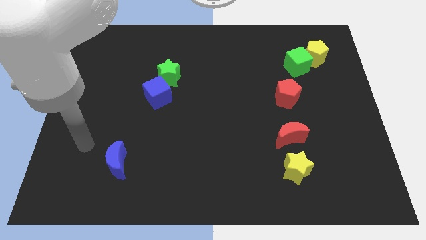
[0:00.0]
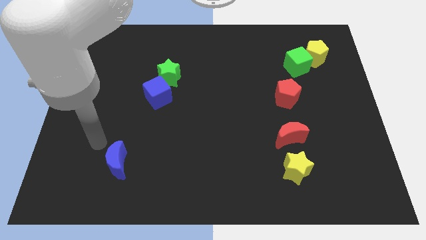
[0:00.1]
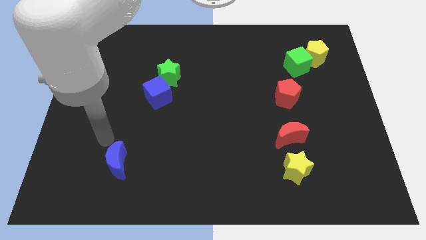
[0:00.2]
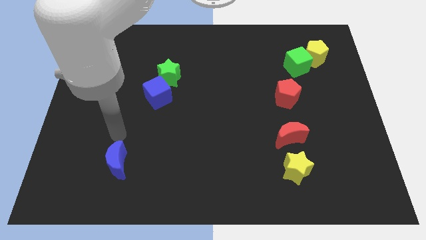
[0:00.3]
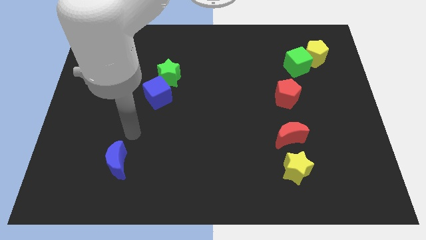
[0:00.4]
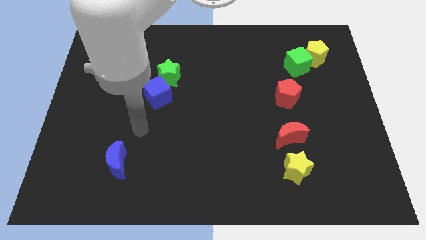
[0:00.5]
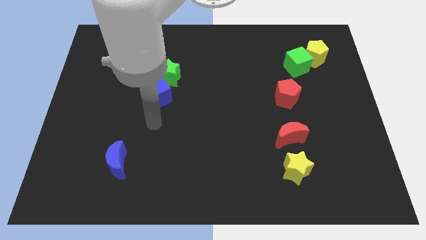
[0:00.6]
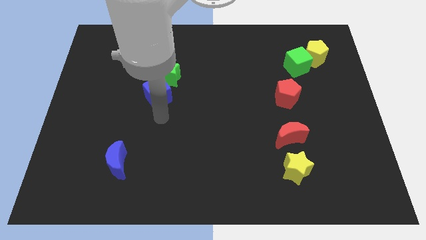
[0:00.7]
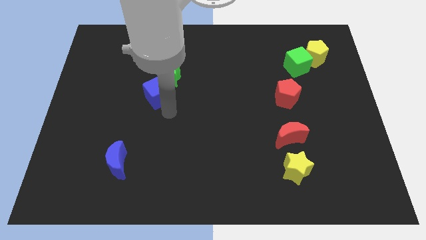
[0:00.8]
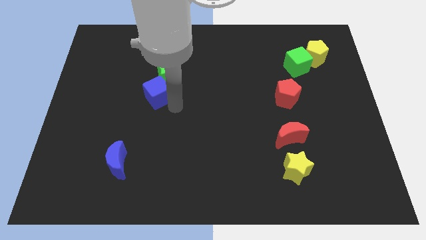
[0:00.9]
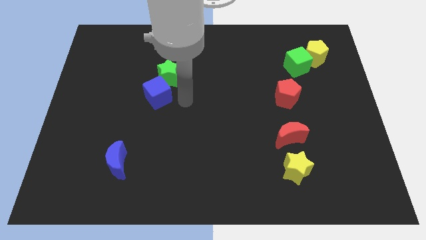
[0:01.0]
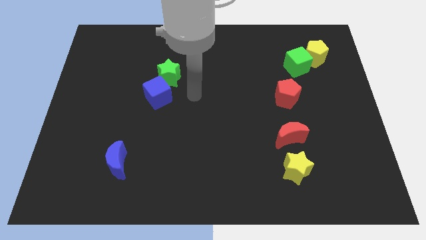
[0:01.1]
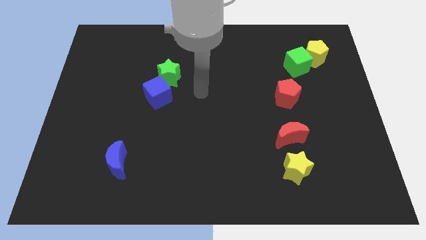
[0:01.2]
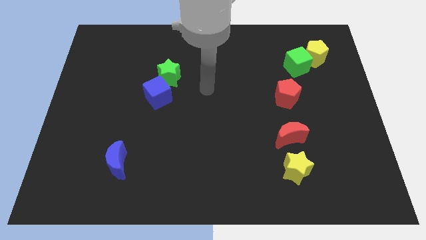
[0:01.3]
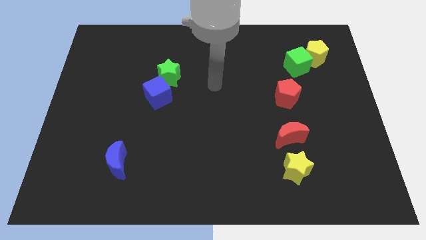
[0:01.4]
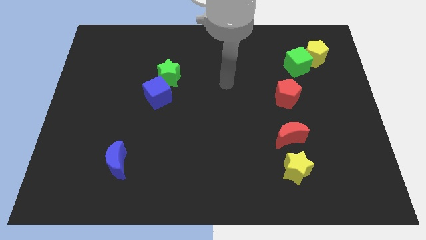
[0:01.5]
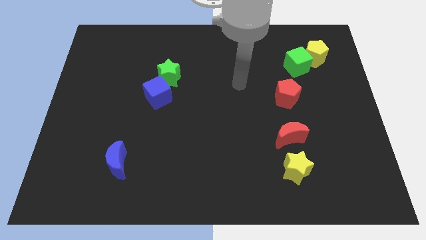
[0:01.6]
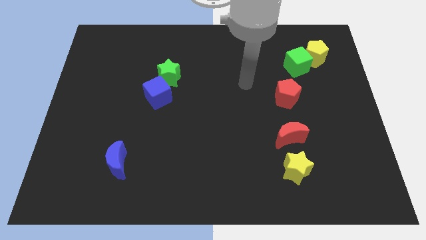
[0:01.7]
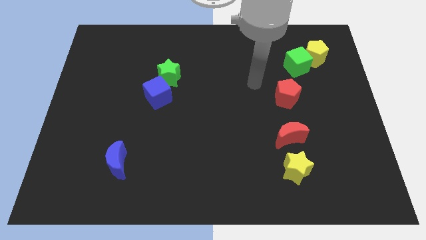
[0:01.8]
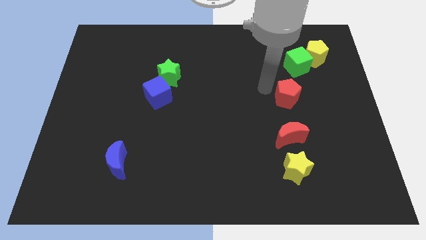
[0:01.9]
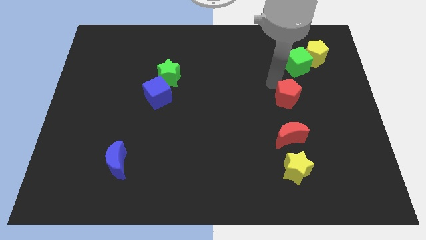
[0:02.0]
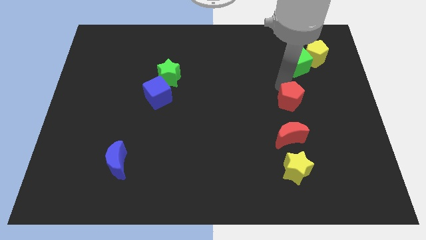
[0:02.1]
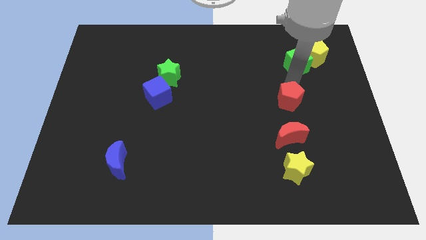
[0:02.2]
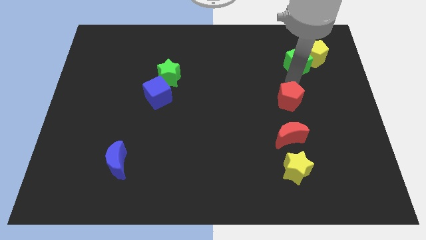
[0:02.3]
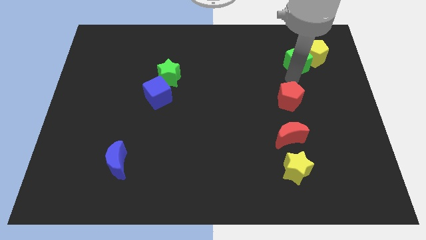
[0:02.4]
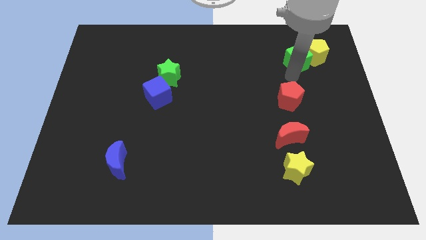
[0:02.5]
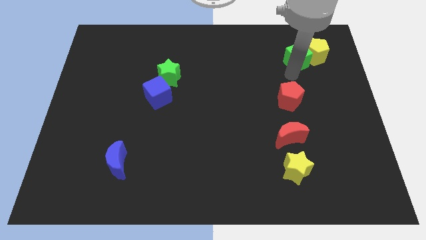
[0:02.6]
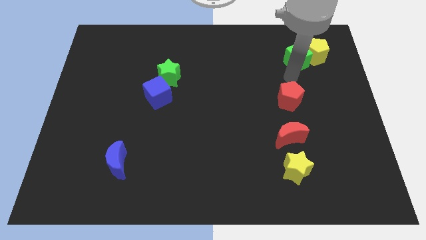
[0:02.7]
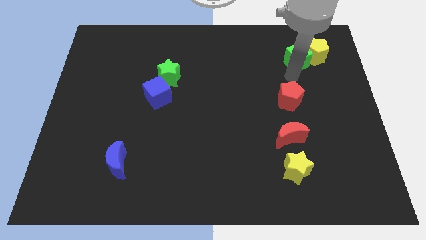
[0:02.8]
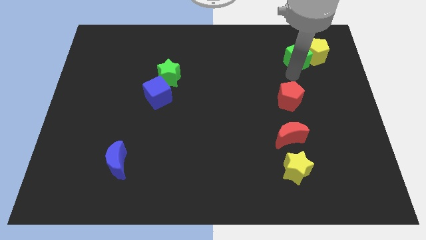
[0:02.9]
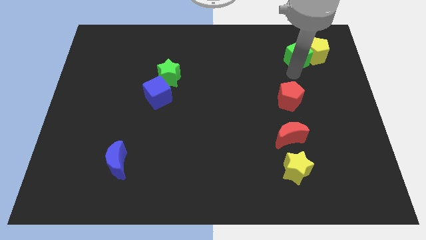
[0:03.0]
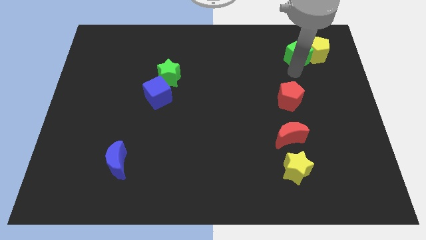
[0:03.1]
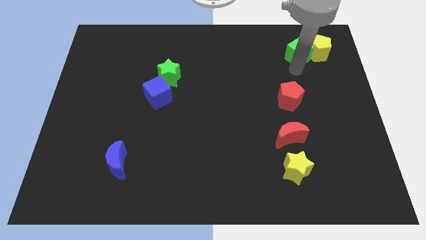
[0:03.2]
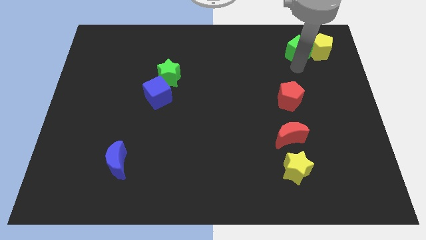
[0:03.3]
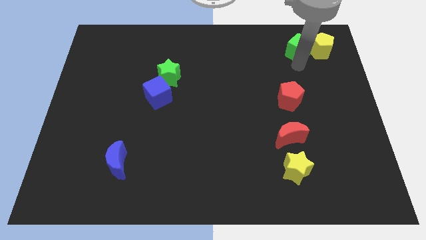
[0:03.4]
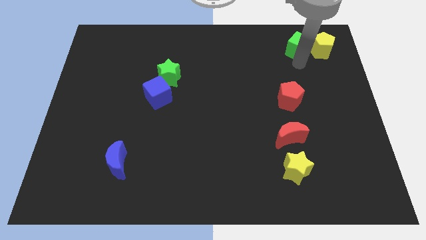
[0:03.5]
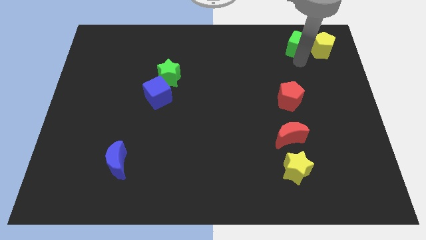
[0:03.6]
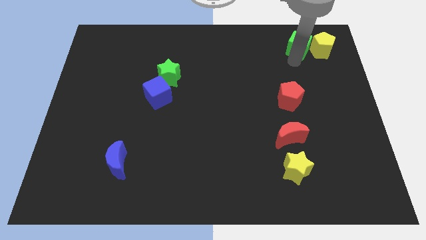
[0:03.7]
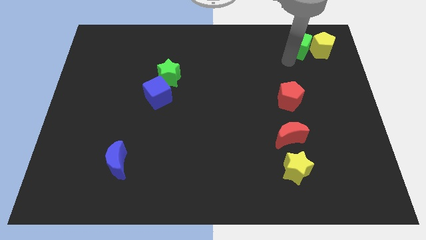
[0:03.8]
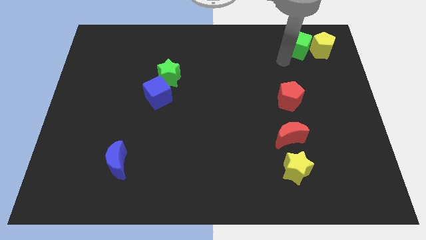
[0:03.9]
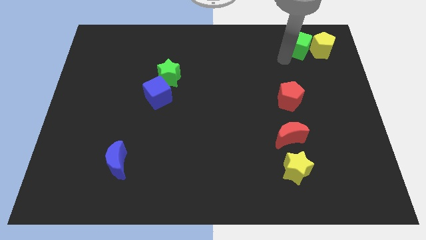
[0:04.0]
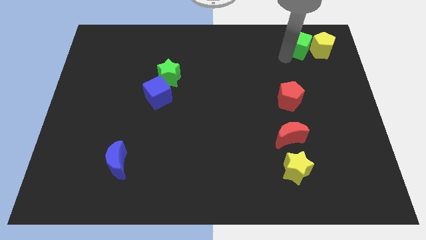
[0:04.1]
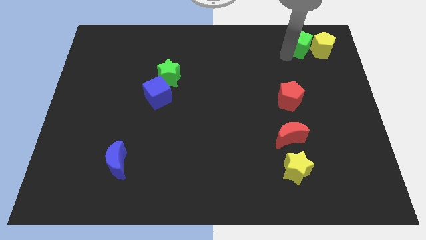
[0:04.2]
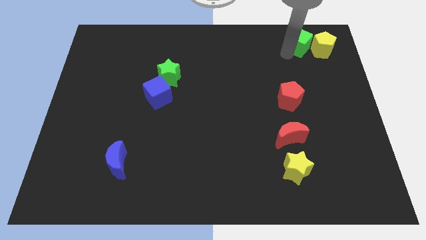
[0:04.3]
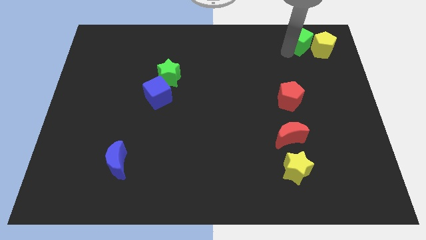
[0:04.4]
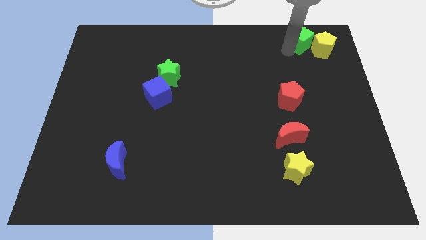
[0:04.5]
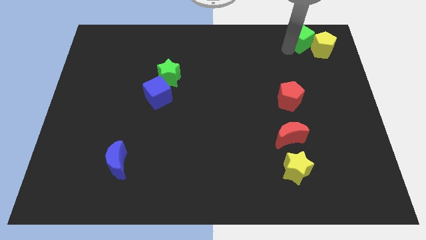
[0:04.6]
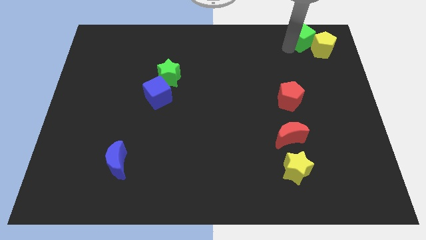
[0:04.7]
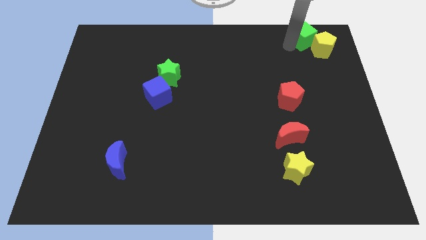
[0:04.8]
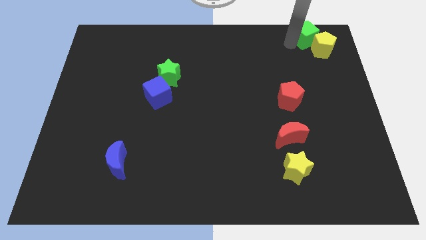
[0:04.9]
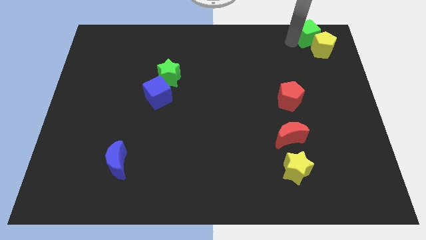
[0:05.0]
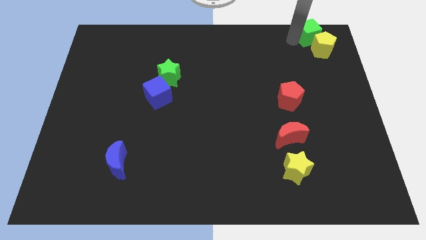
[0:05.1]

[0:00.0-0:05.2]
slide the green cube to the top right

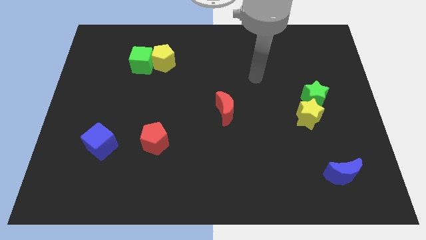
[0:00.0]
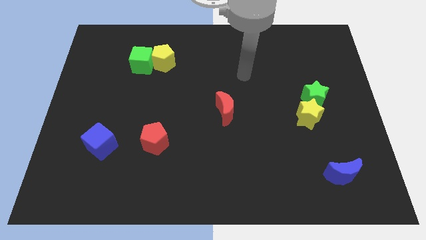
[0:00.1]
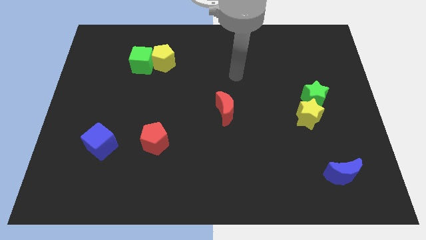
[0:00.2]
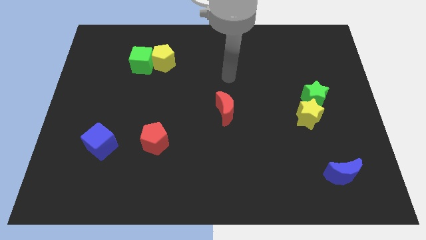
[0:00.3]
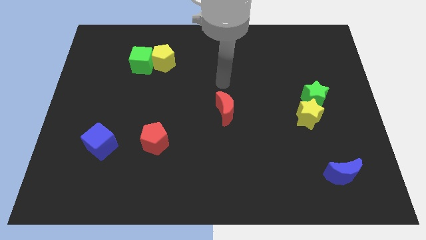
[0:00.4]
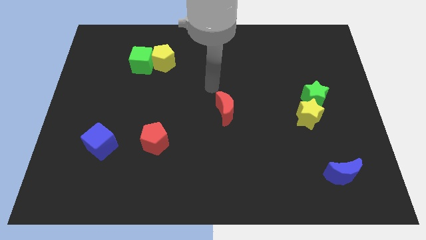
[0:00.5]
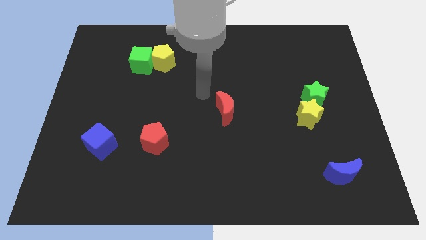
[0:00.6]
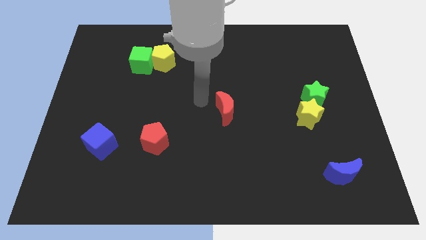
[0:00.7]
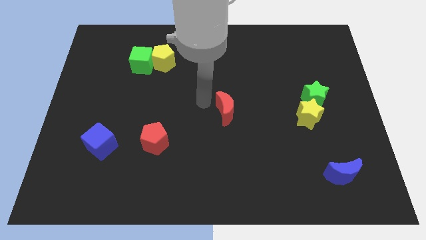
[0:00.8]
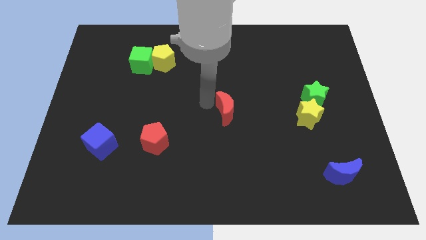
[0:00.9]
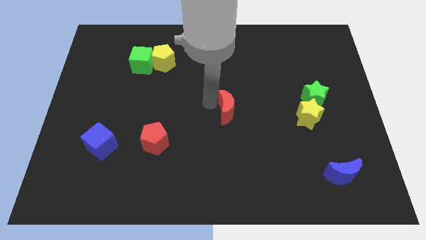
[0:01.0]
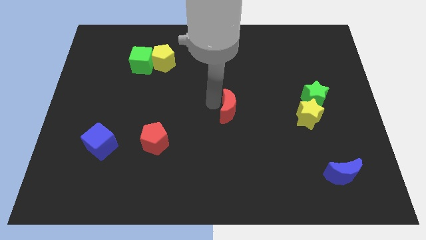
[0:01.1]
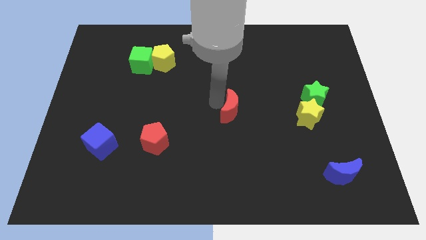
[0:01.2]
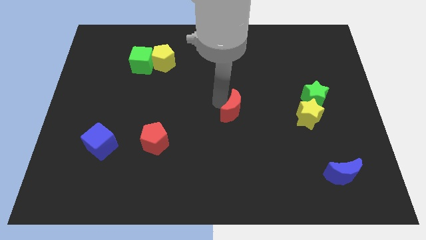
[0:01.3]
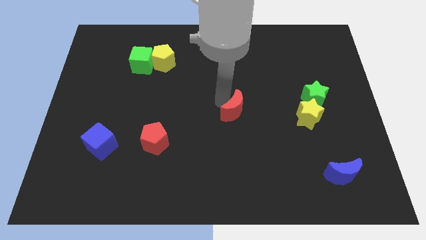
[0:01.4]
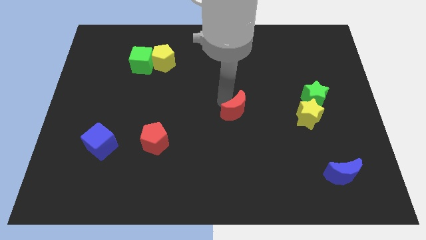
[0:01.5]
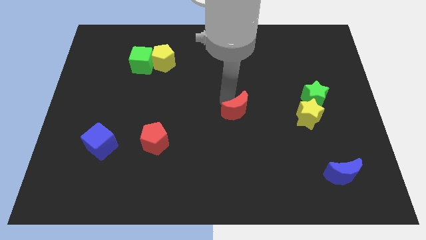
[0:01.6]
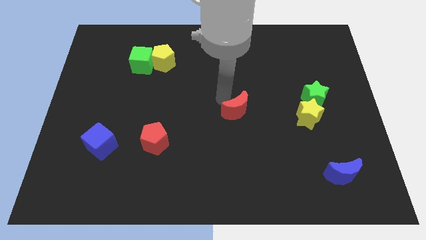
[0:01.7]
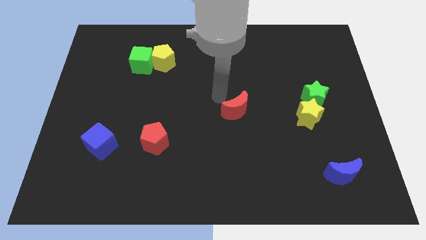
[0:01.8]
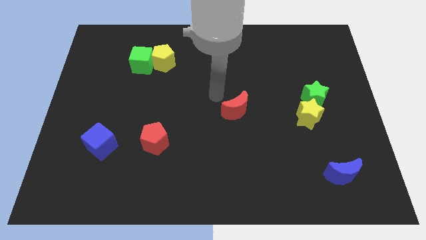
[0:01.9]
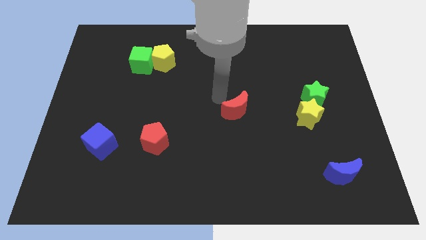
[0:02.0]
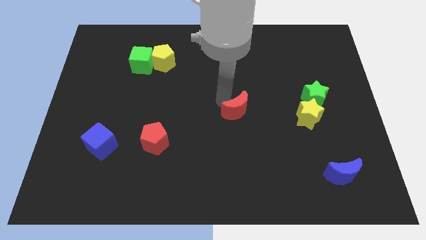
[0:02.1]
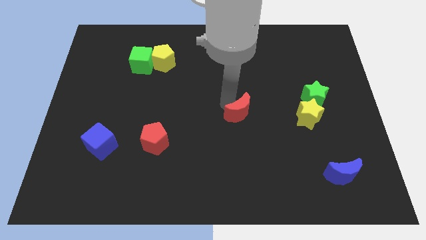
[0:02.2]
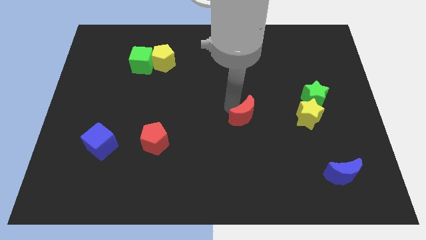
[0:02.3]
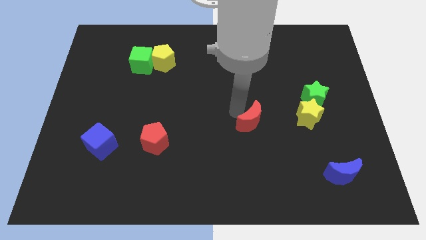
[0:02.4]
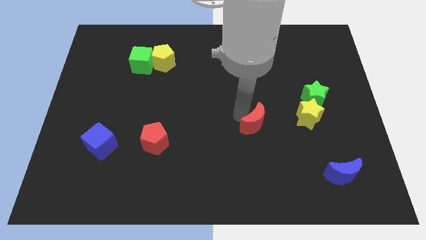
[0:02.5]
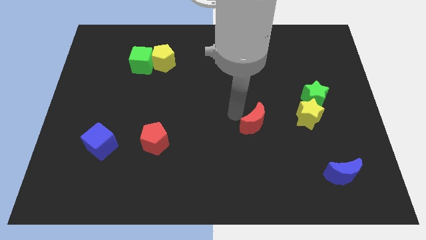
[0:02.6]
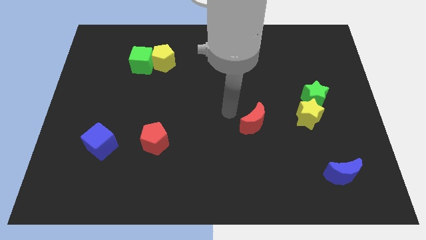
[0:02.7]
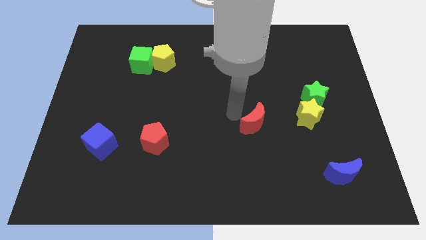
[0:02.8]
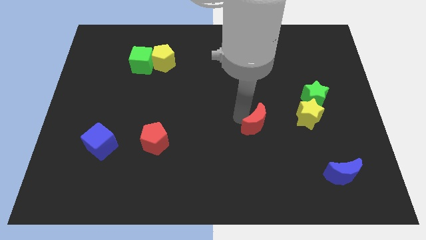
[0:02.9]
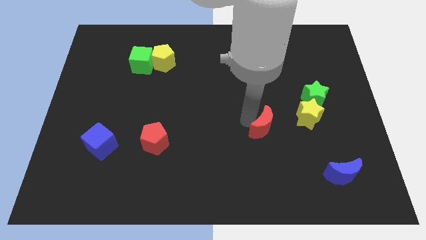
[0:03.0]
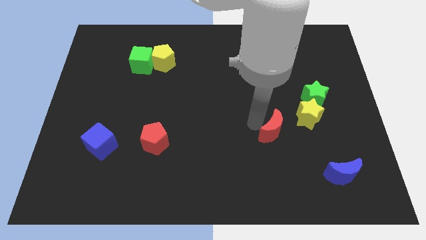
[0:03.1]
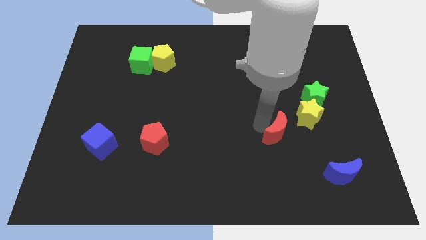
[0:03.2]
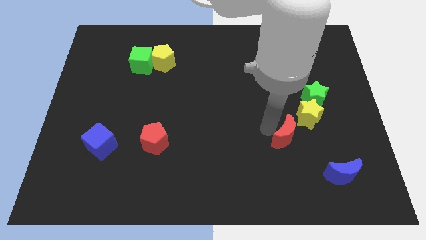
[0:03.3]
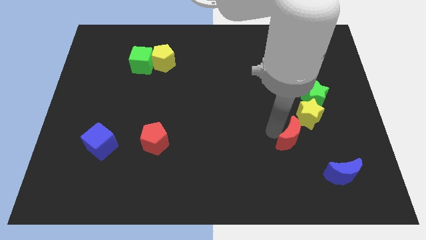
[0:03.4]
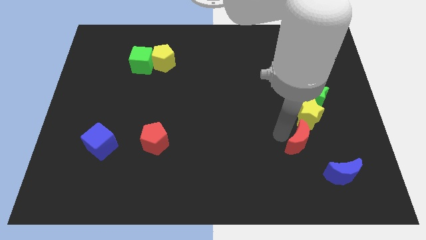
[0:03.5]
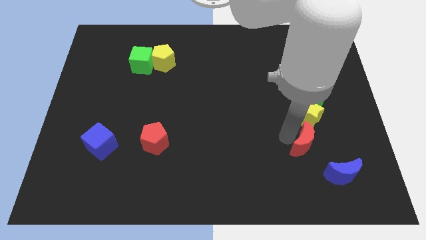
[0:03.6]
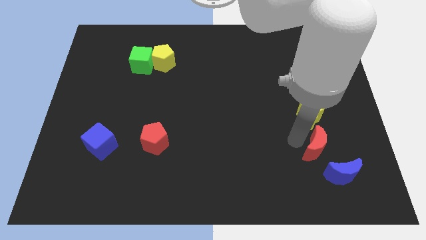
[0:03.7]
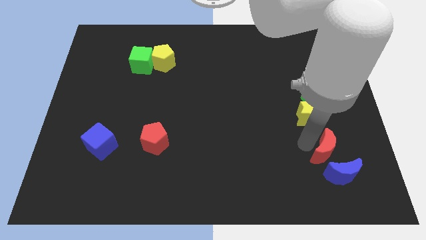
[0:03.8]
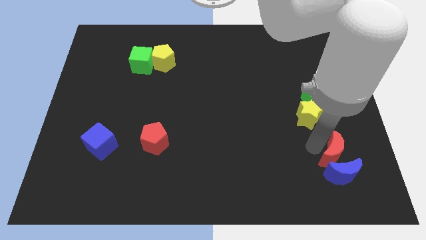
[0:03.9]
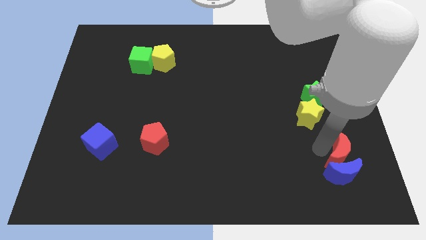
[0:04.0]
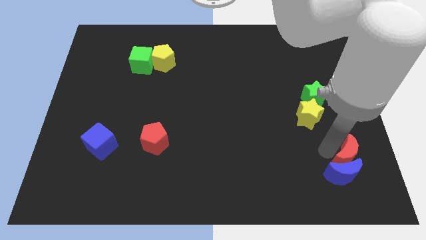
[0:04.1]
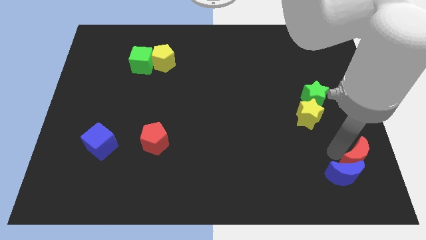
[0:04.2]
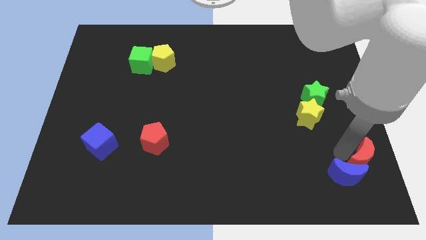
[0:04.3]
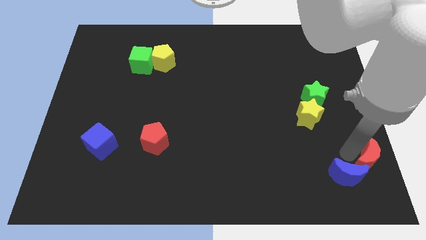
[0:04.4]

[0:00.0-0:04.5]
move the red moon to the bottom right corner
